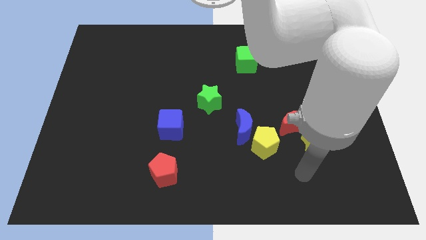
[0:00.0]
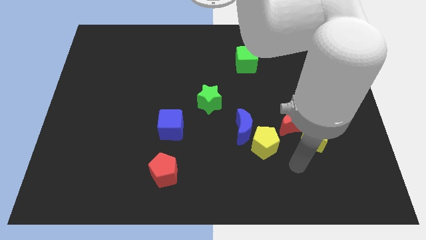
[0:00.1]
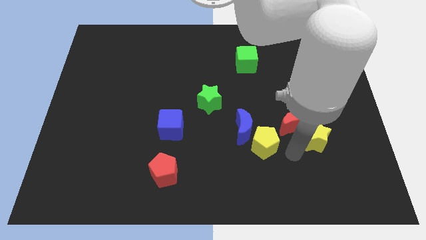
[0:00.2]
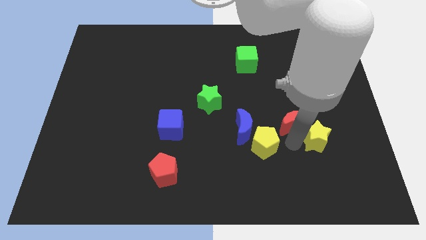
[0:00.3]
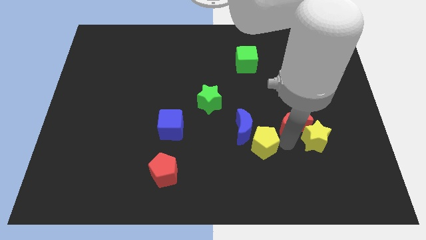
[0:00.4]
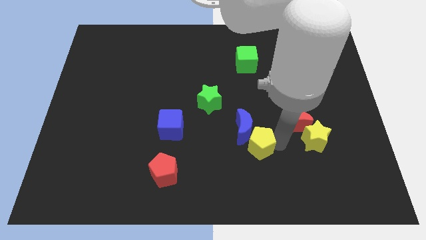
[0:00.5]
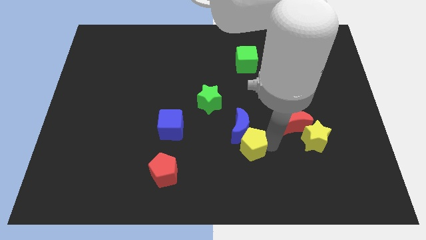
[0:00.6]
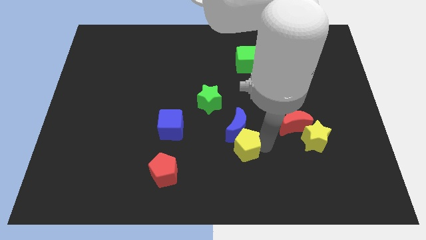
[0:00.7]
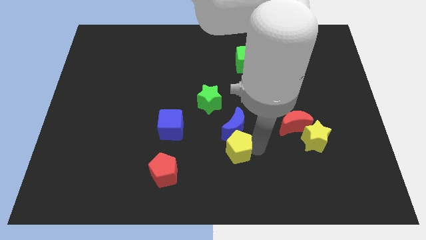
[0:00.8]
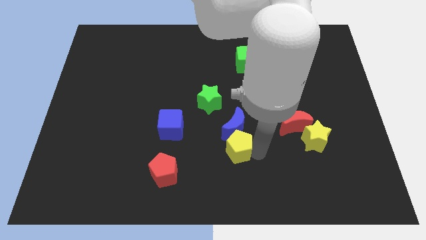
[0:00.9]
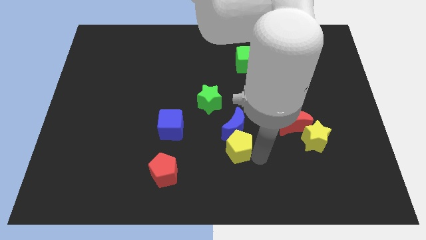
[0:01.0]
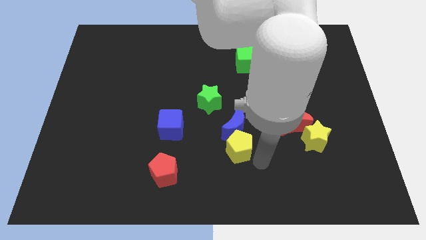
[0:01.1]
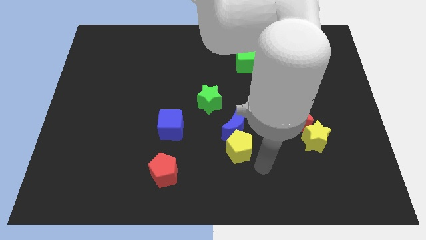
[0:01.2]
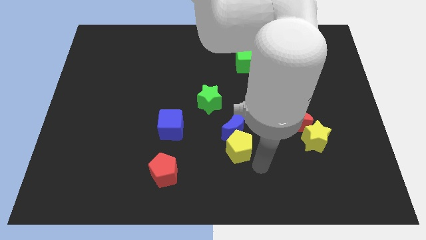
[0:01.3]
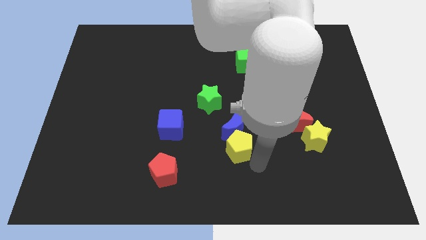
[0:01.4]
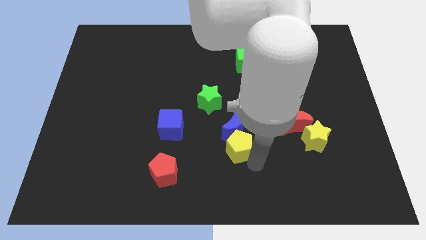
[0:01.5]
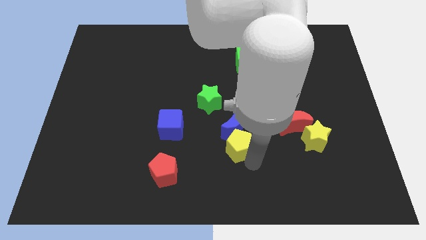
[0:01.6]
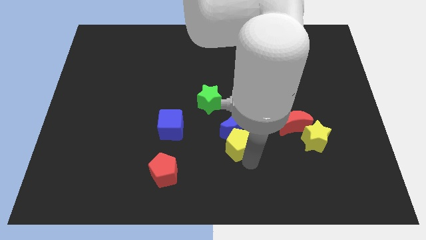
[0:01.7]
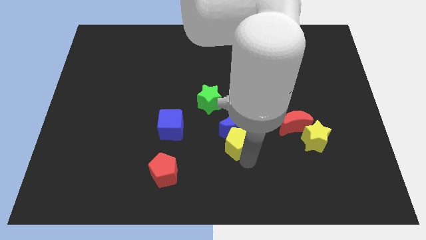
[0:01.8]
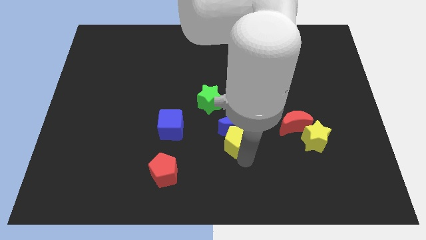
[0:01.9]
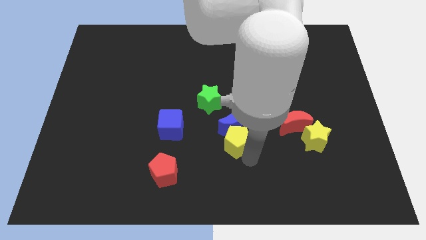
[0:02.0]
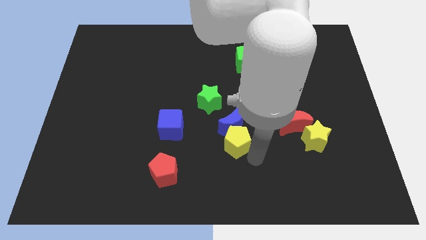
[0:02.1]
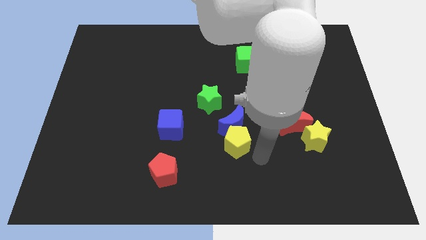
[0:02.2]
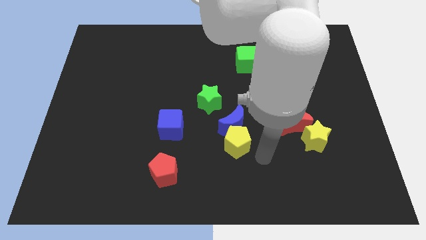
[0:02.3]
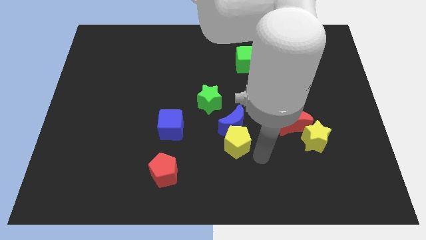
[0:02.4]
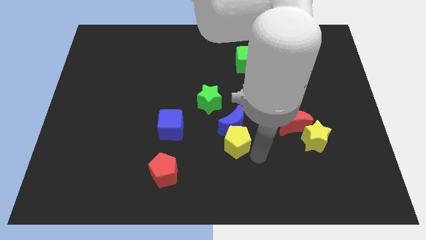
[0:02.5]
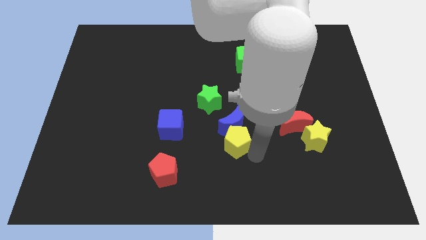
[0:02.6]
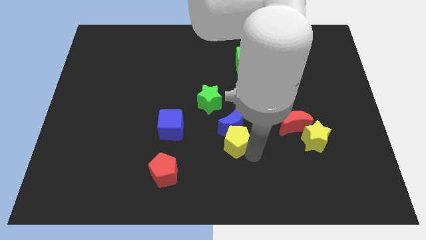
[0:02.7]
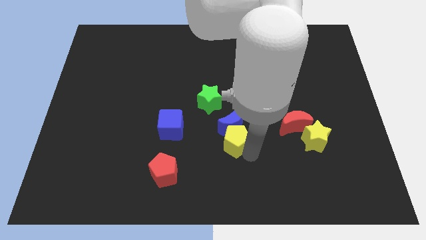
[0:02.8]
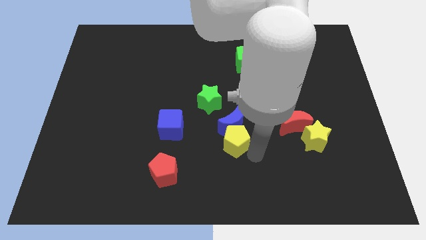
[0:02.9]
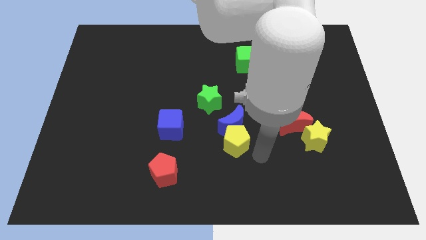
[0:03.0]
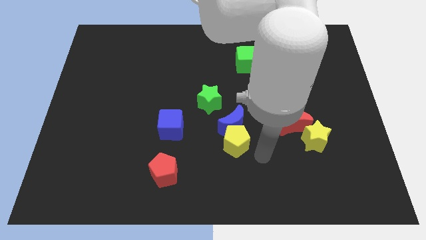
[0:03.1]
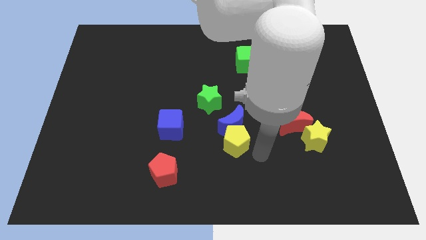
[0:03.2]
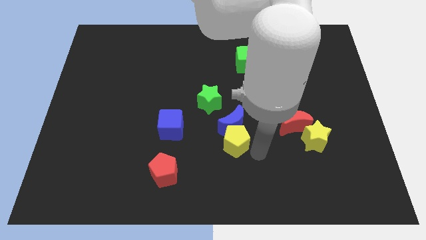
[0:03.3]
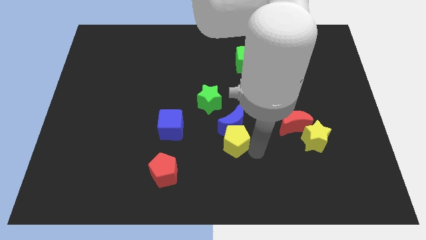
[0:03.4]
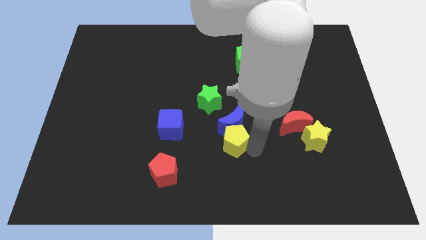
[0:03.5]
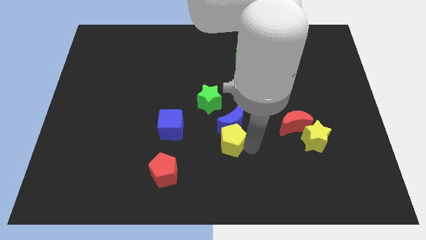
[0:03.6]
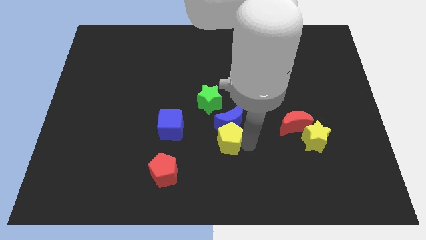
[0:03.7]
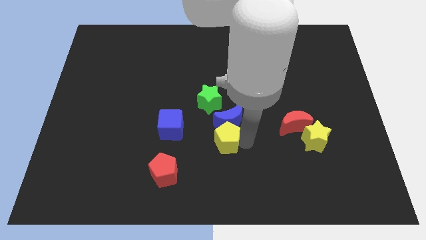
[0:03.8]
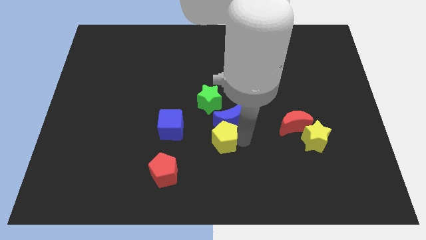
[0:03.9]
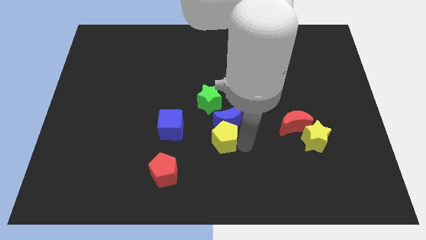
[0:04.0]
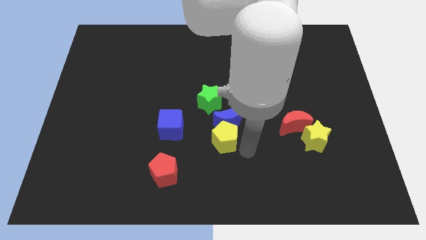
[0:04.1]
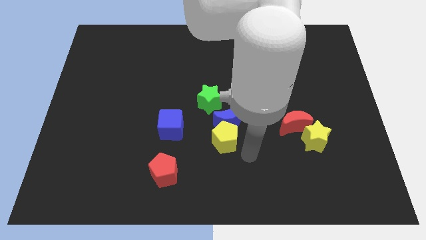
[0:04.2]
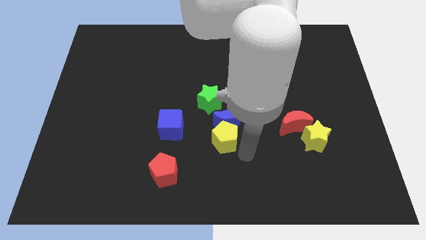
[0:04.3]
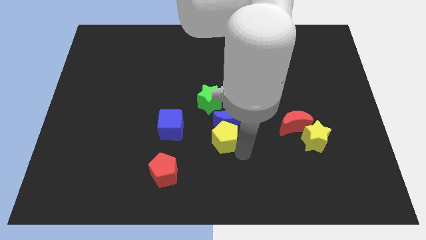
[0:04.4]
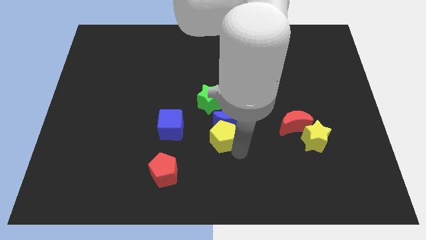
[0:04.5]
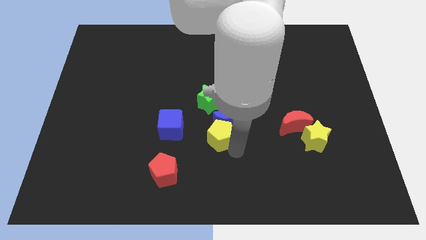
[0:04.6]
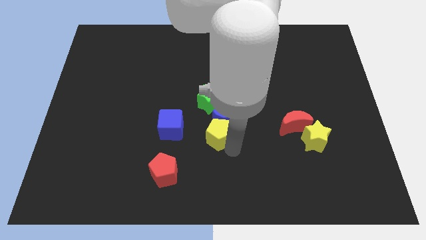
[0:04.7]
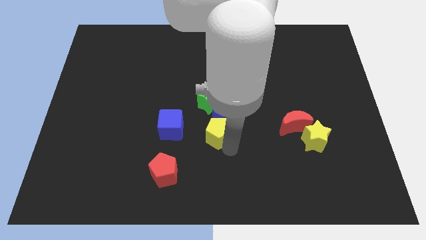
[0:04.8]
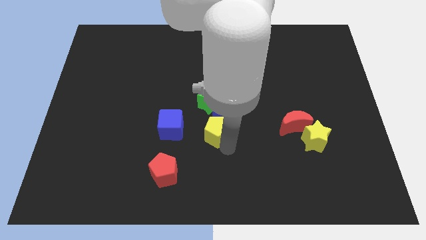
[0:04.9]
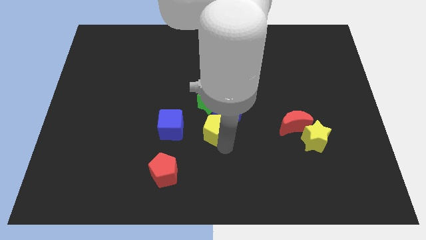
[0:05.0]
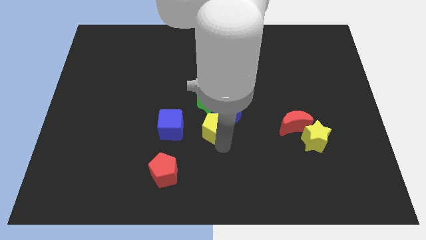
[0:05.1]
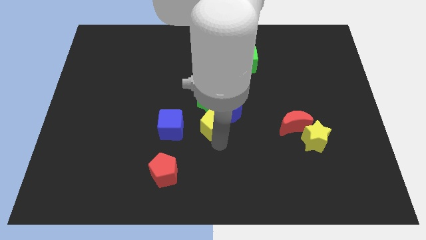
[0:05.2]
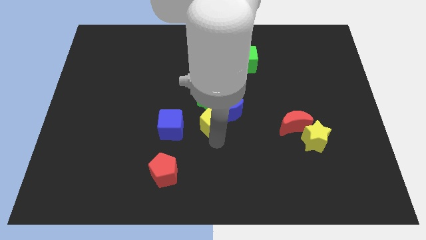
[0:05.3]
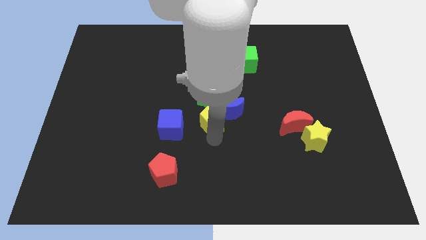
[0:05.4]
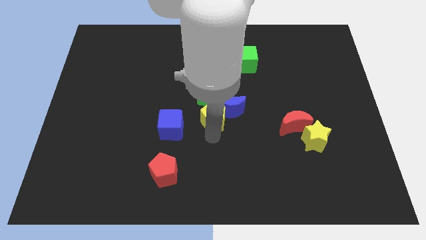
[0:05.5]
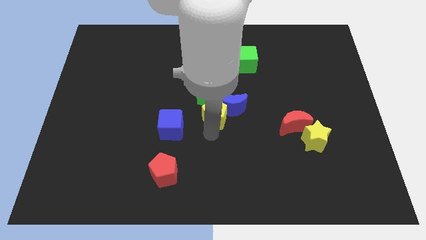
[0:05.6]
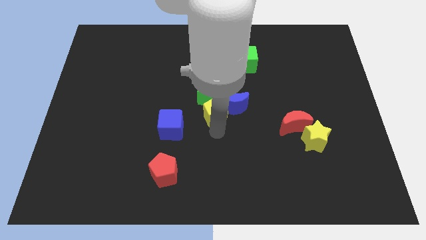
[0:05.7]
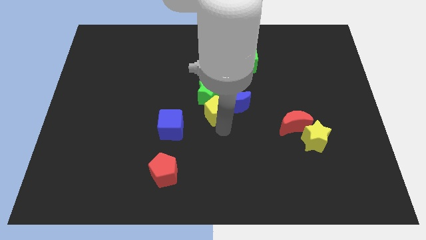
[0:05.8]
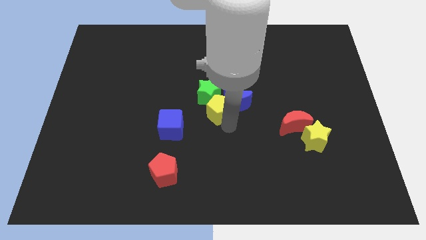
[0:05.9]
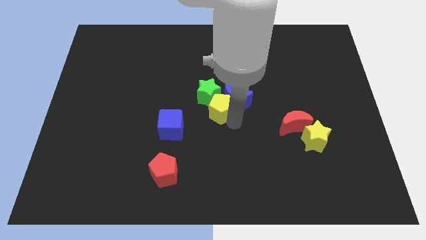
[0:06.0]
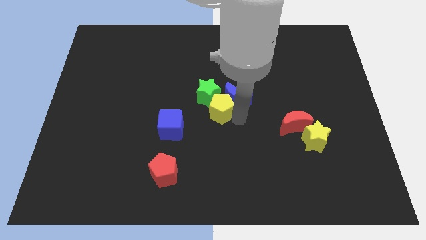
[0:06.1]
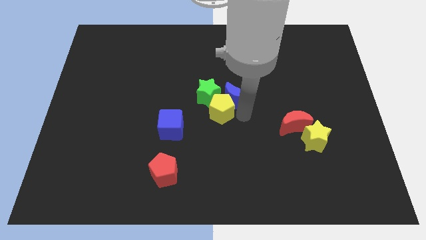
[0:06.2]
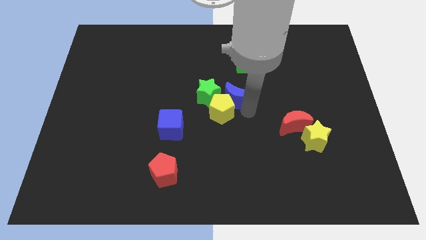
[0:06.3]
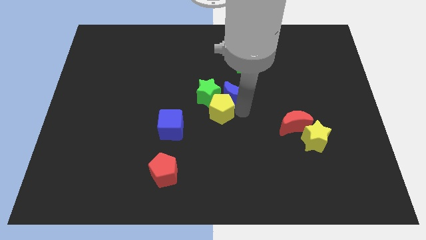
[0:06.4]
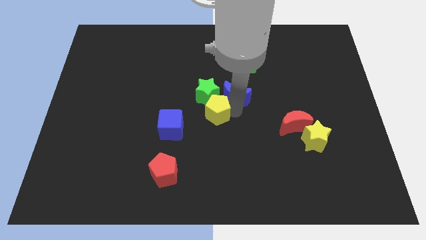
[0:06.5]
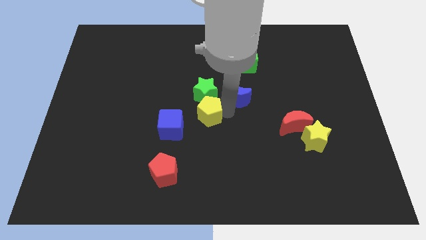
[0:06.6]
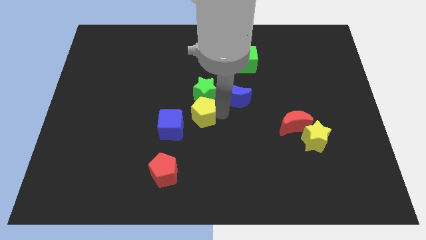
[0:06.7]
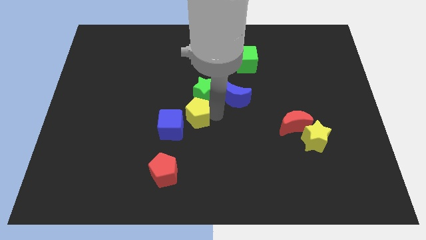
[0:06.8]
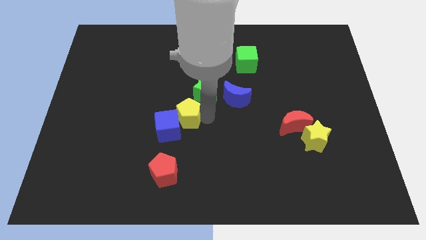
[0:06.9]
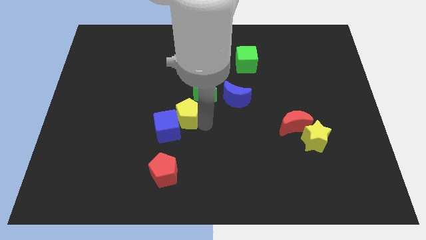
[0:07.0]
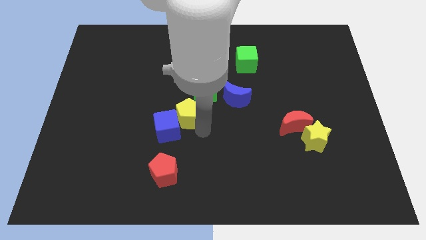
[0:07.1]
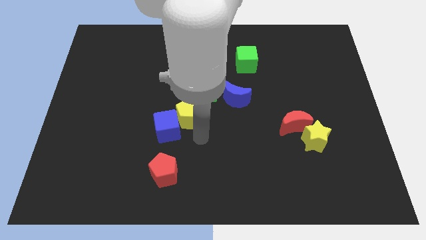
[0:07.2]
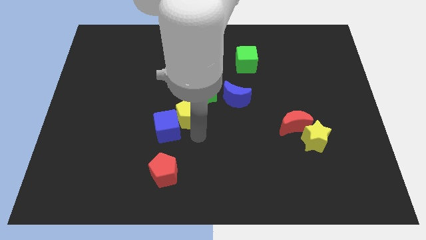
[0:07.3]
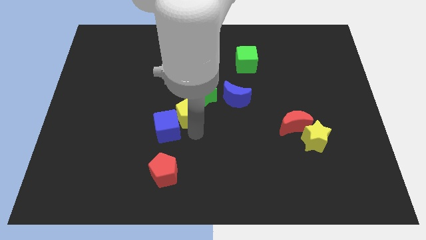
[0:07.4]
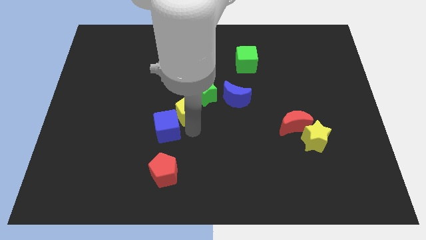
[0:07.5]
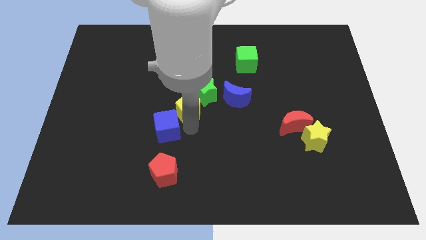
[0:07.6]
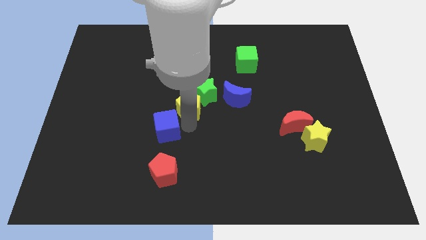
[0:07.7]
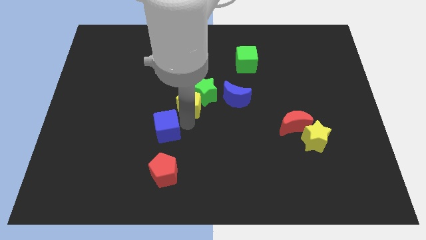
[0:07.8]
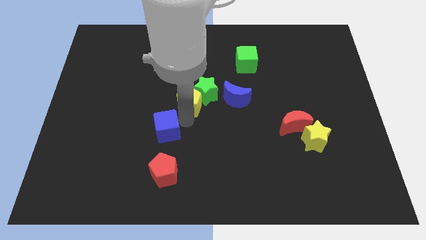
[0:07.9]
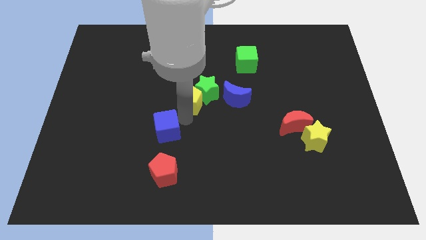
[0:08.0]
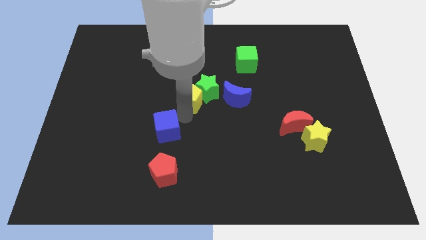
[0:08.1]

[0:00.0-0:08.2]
move the yellow pentagon upwards and then to the left
